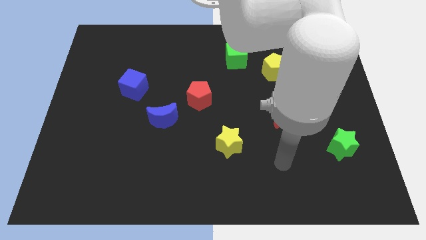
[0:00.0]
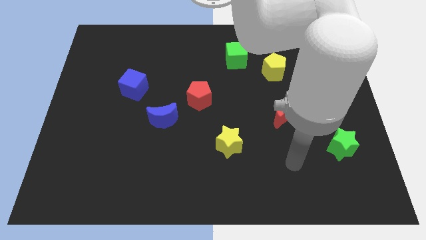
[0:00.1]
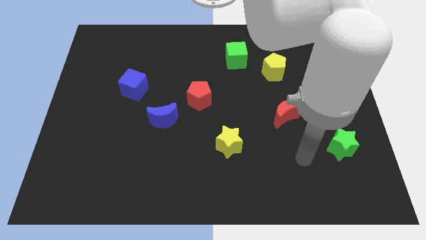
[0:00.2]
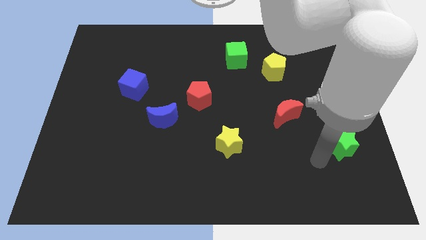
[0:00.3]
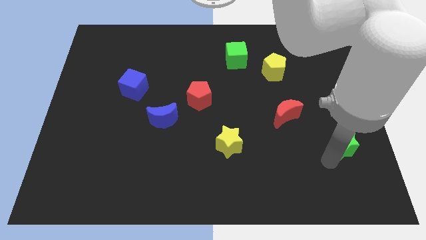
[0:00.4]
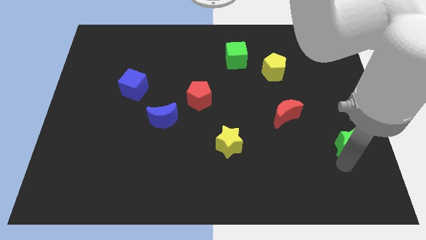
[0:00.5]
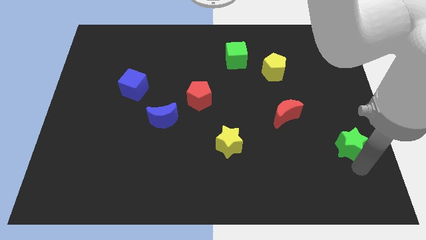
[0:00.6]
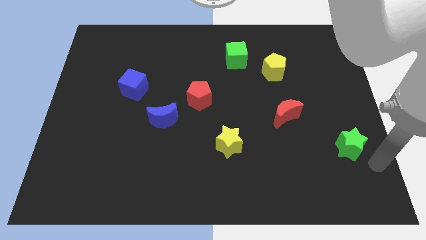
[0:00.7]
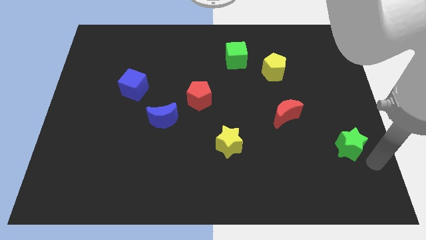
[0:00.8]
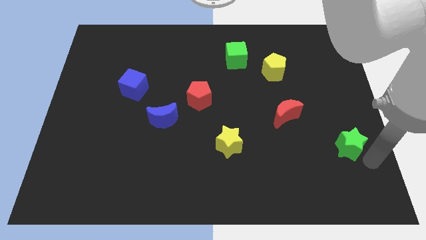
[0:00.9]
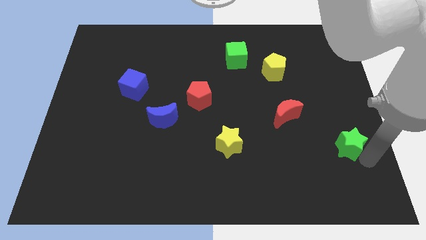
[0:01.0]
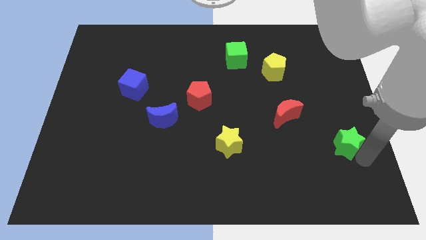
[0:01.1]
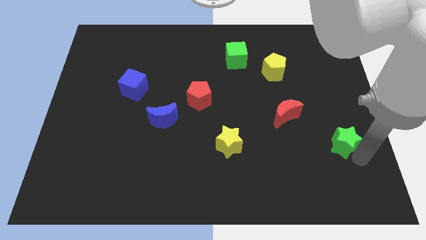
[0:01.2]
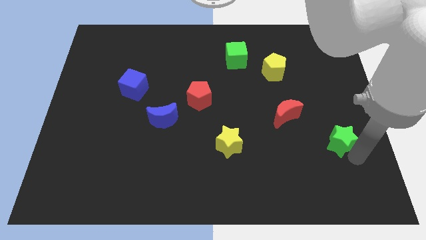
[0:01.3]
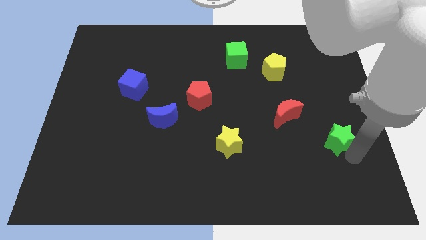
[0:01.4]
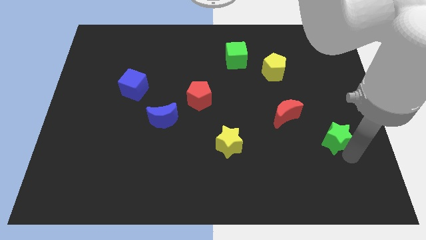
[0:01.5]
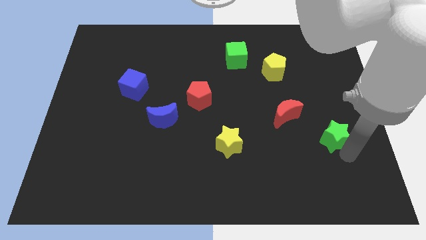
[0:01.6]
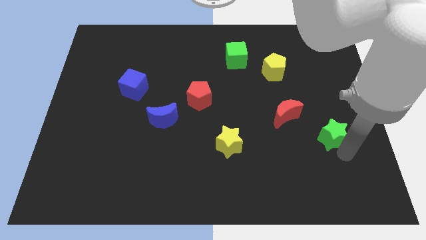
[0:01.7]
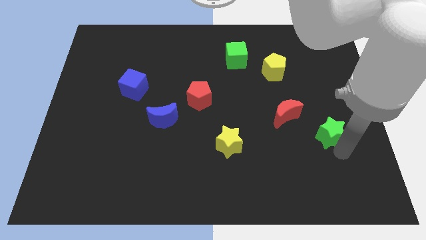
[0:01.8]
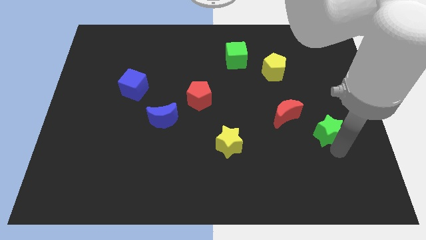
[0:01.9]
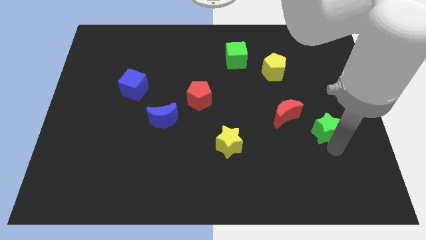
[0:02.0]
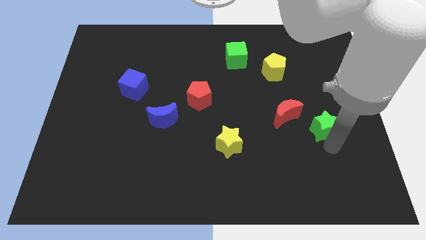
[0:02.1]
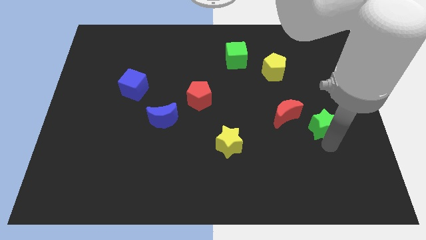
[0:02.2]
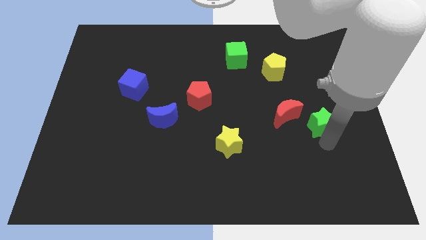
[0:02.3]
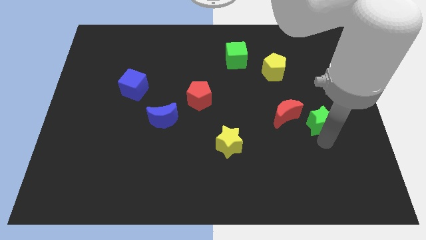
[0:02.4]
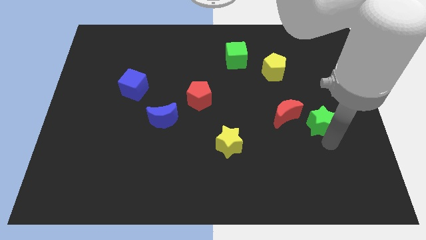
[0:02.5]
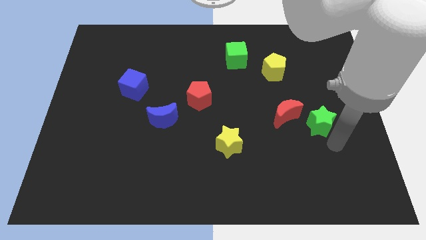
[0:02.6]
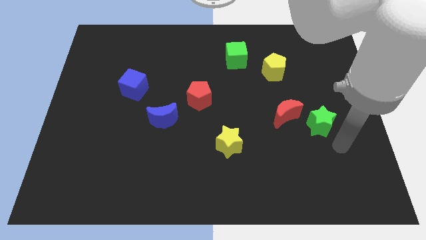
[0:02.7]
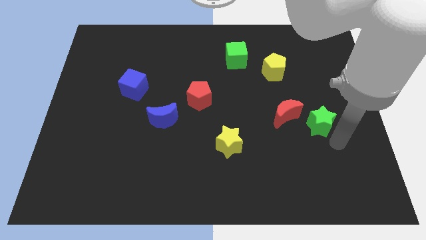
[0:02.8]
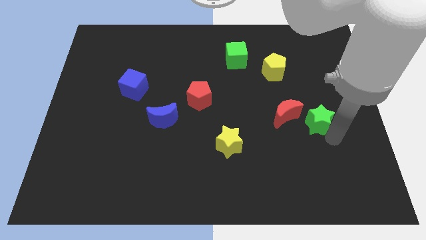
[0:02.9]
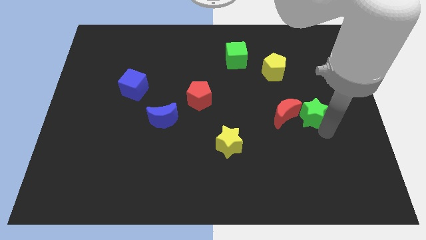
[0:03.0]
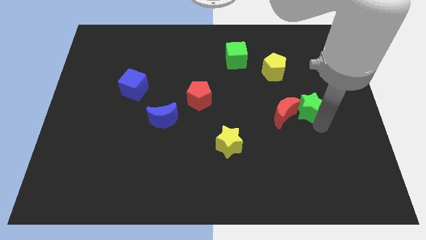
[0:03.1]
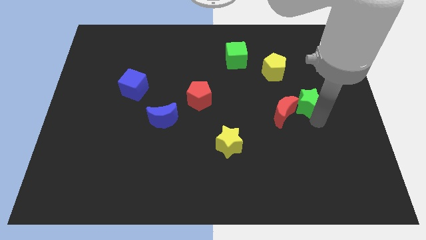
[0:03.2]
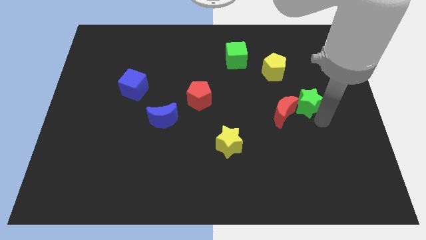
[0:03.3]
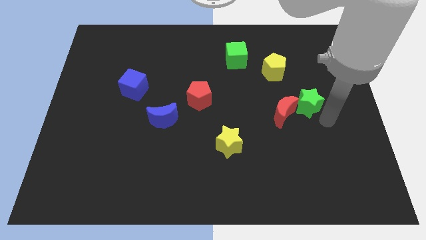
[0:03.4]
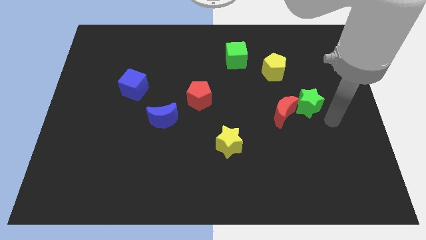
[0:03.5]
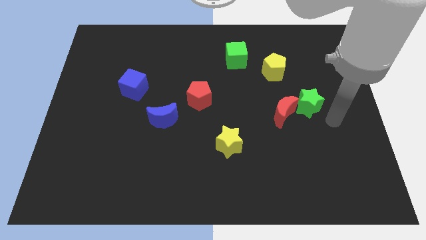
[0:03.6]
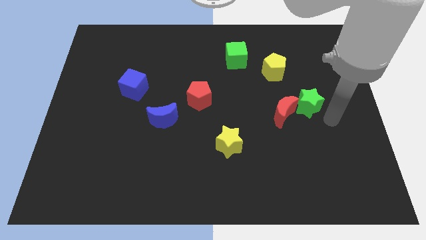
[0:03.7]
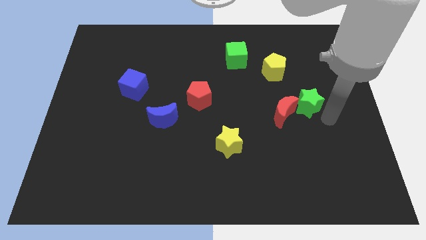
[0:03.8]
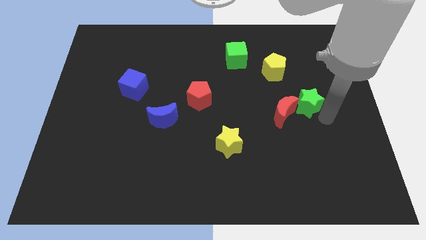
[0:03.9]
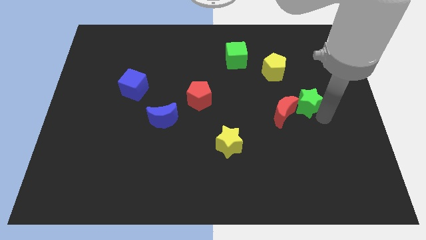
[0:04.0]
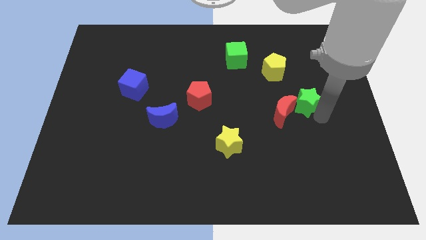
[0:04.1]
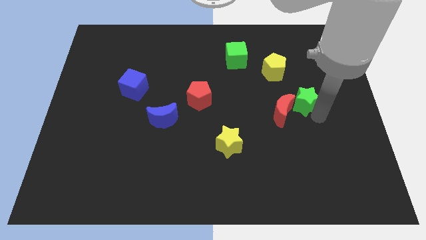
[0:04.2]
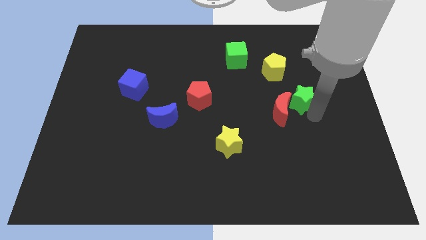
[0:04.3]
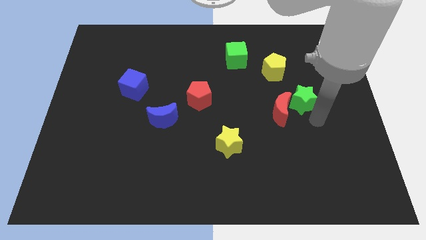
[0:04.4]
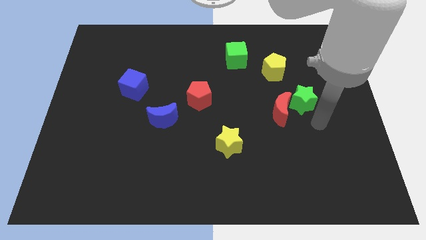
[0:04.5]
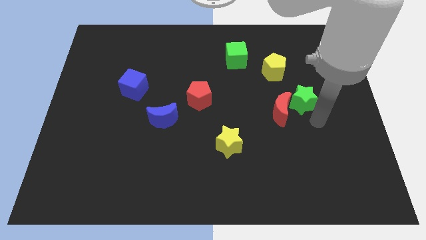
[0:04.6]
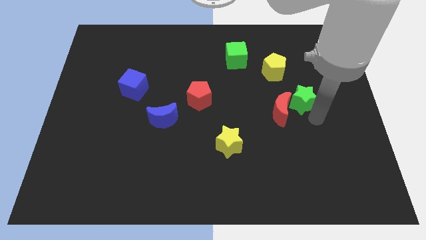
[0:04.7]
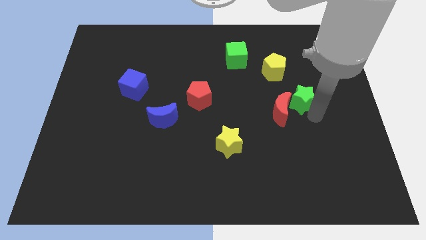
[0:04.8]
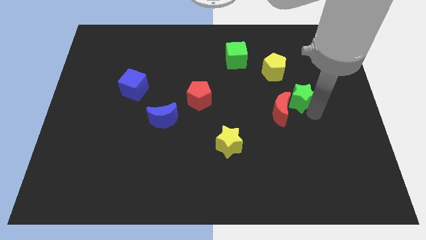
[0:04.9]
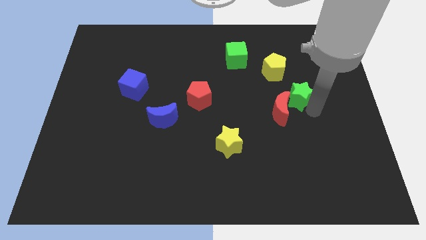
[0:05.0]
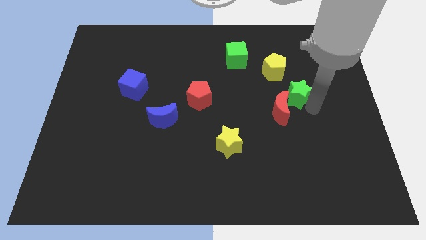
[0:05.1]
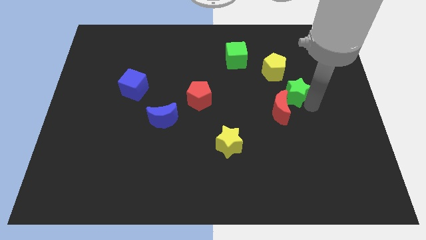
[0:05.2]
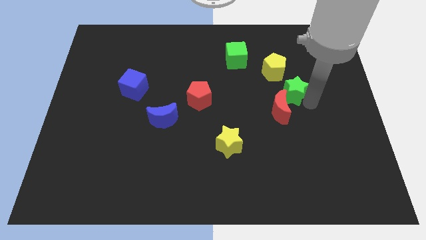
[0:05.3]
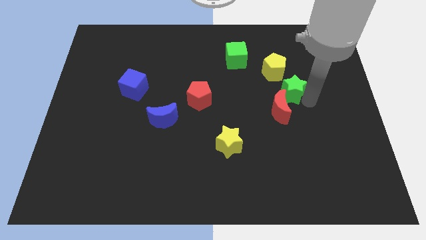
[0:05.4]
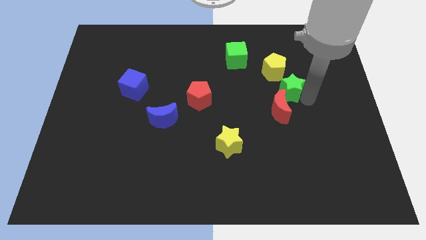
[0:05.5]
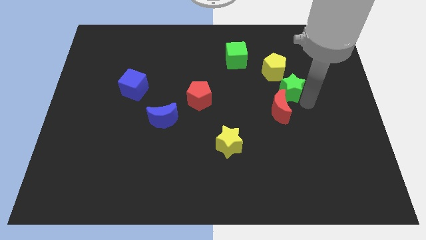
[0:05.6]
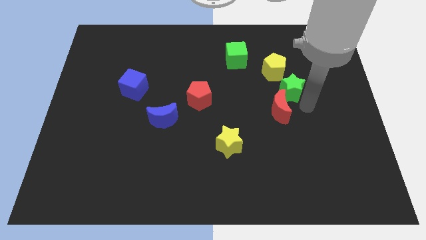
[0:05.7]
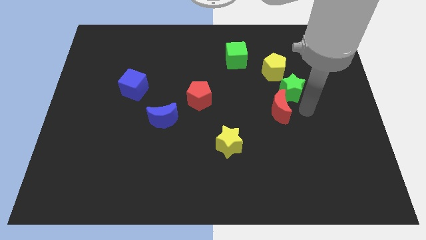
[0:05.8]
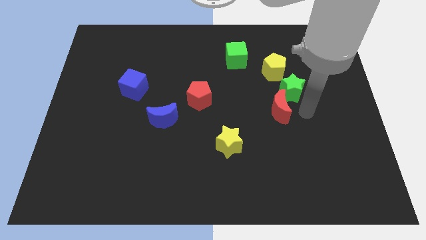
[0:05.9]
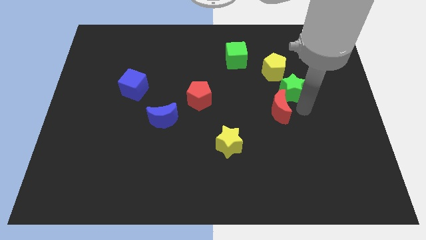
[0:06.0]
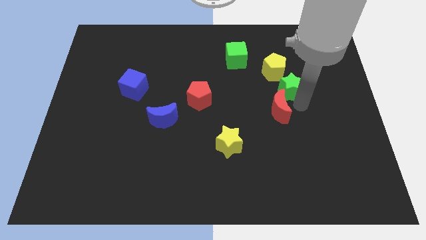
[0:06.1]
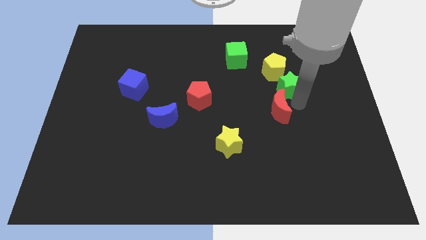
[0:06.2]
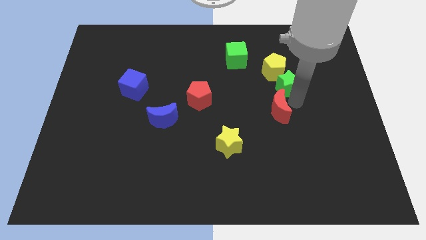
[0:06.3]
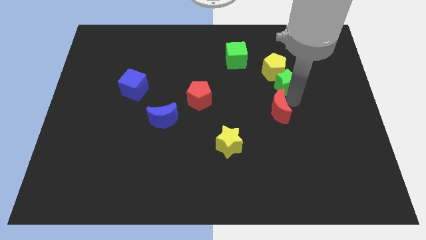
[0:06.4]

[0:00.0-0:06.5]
slide the green star close to the yellow pentagon
